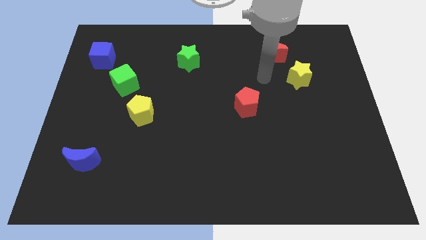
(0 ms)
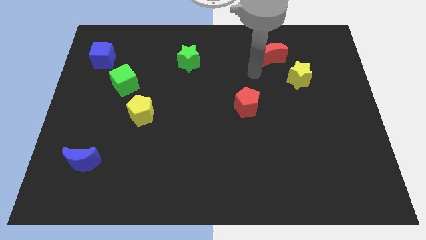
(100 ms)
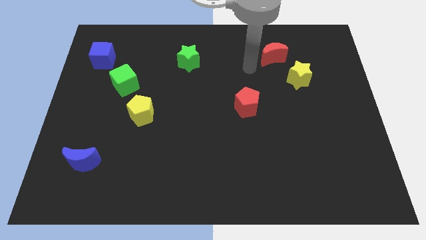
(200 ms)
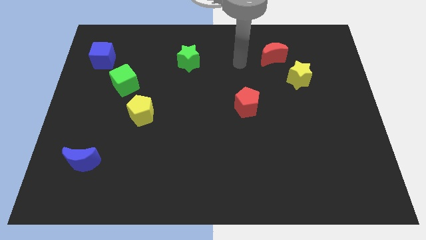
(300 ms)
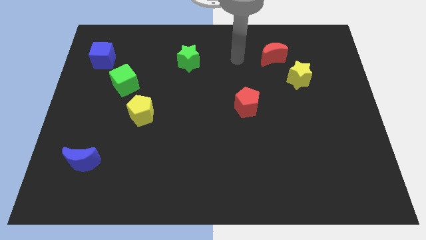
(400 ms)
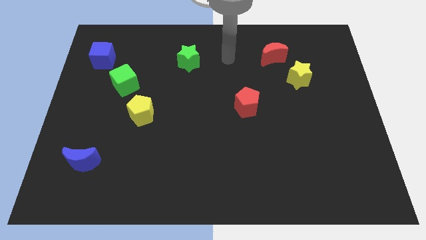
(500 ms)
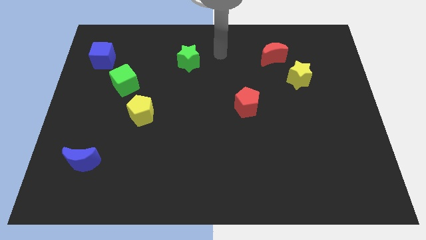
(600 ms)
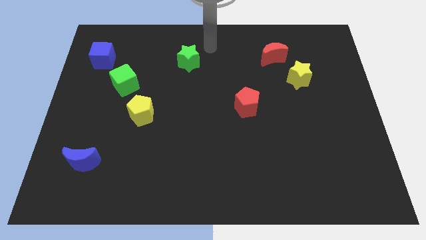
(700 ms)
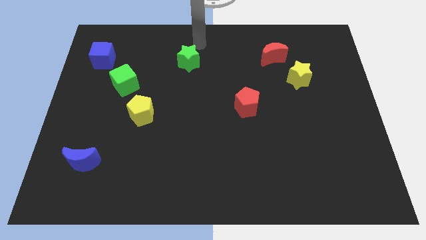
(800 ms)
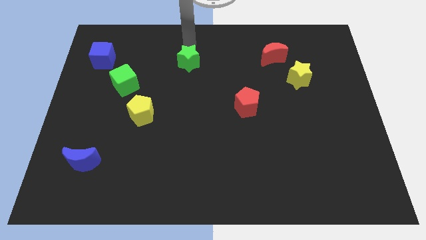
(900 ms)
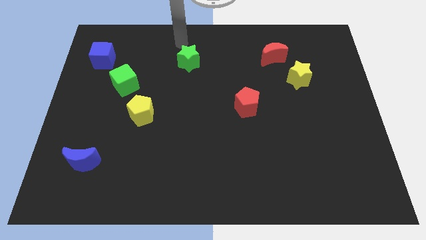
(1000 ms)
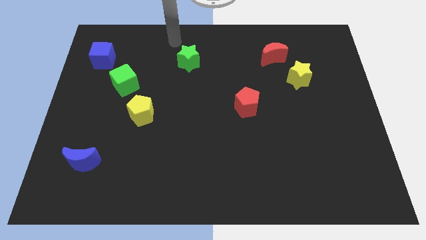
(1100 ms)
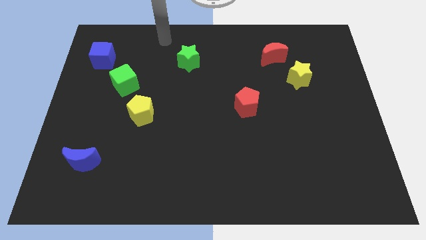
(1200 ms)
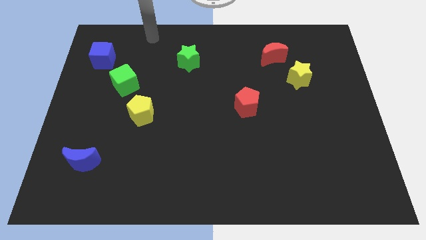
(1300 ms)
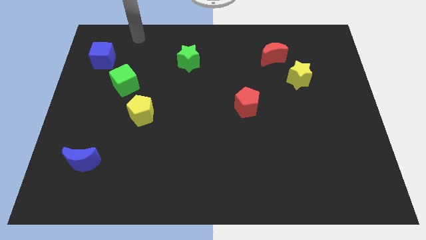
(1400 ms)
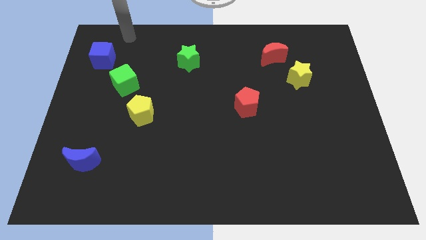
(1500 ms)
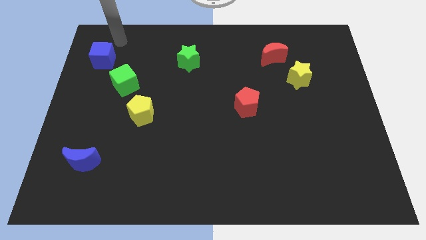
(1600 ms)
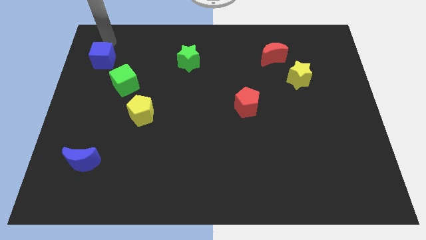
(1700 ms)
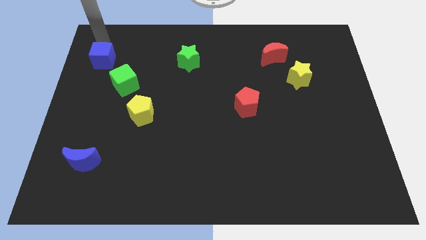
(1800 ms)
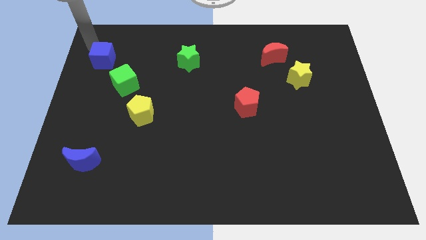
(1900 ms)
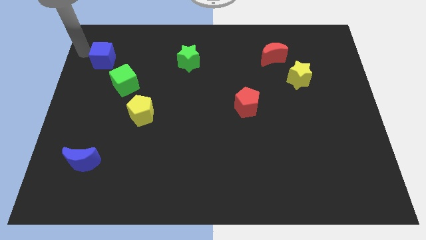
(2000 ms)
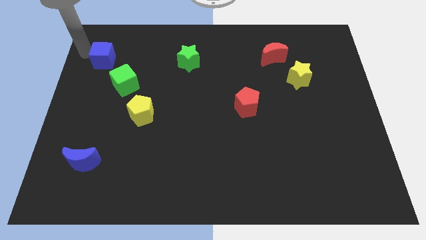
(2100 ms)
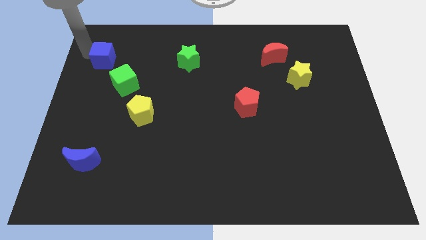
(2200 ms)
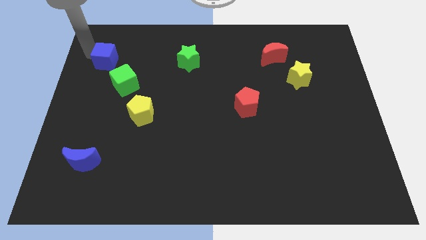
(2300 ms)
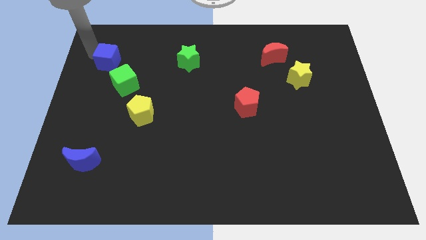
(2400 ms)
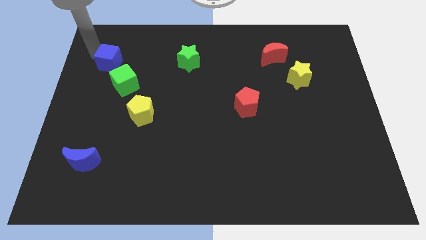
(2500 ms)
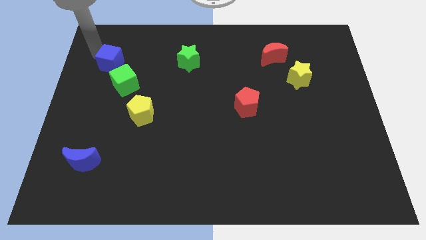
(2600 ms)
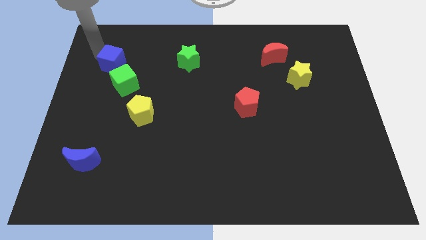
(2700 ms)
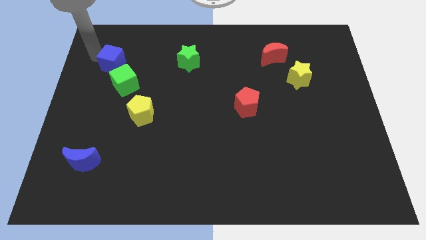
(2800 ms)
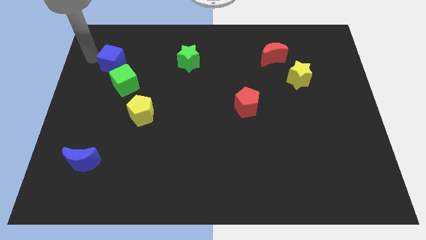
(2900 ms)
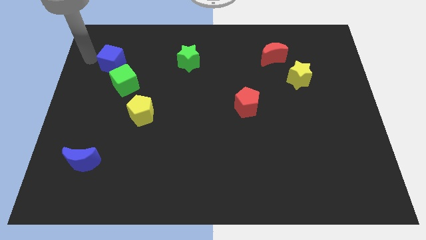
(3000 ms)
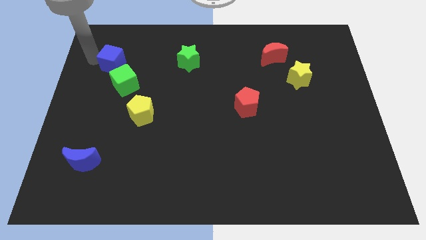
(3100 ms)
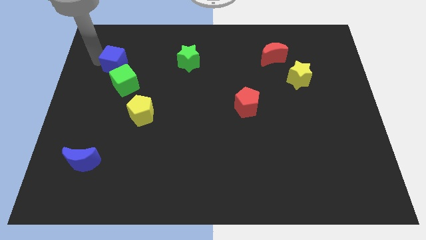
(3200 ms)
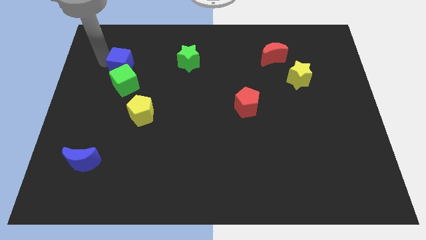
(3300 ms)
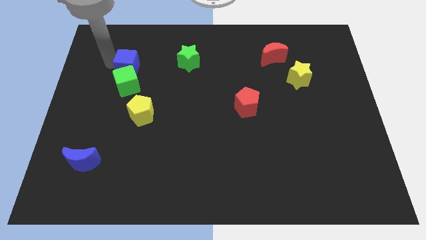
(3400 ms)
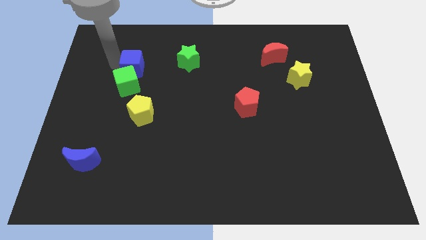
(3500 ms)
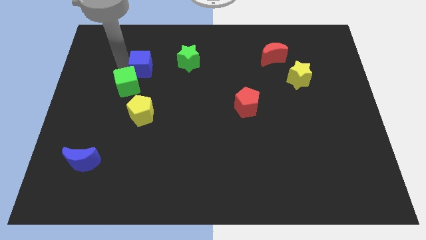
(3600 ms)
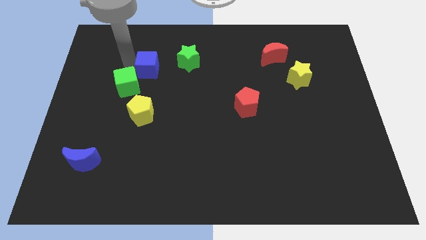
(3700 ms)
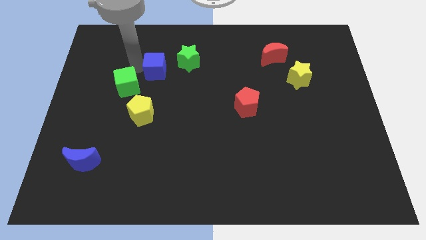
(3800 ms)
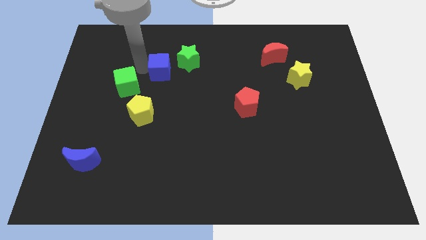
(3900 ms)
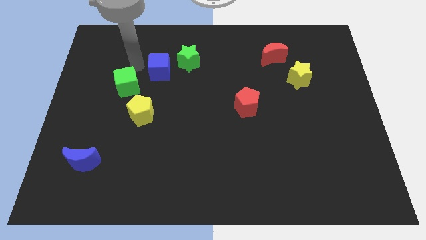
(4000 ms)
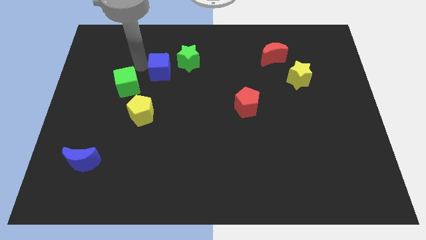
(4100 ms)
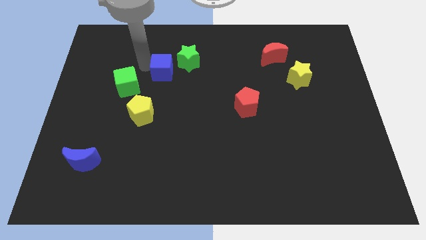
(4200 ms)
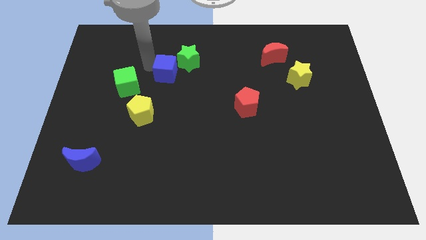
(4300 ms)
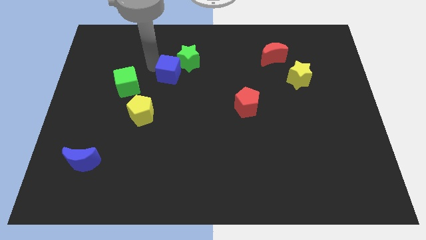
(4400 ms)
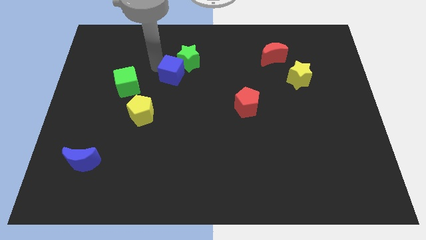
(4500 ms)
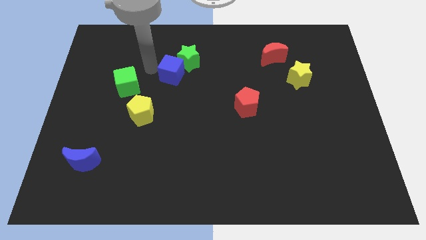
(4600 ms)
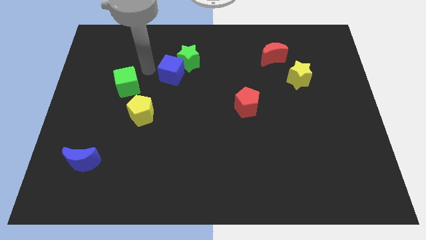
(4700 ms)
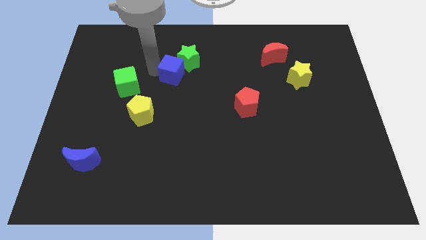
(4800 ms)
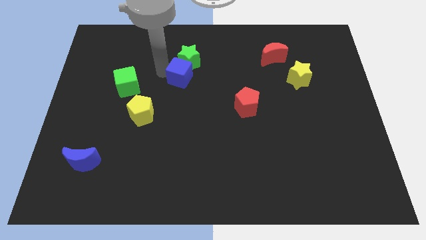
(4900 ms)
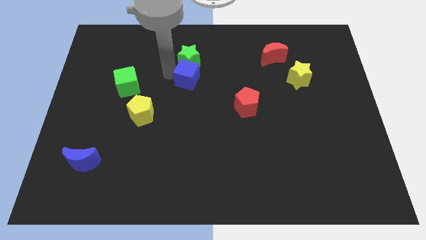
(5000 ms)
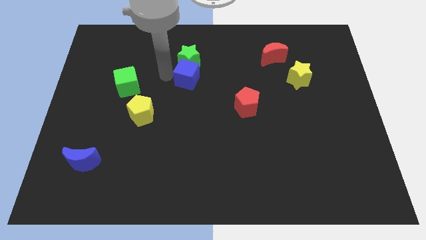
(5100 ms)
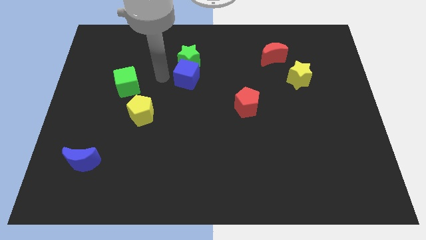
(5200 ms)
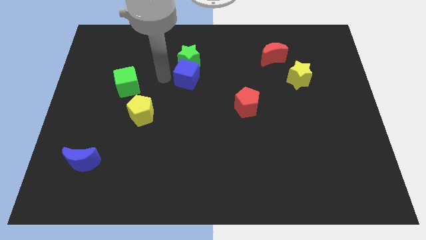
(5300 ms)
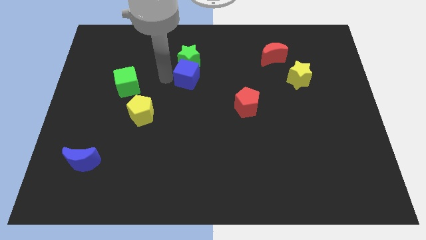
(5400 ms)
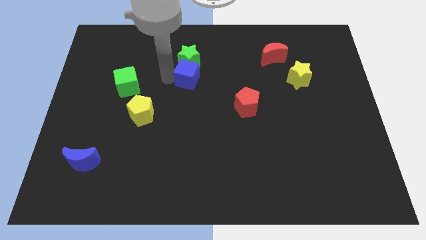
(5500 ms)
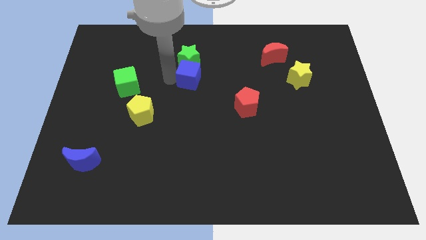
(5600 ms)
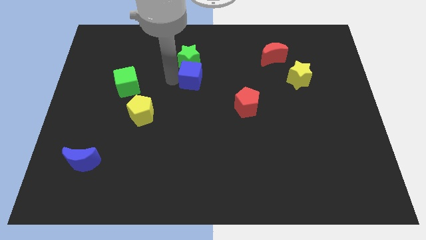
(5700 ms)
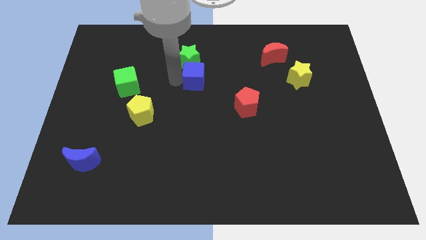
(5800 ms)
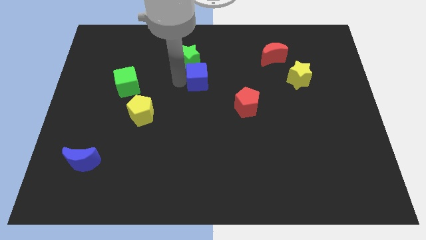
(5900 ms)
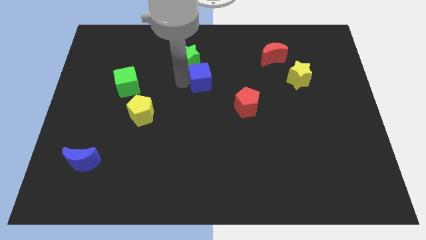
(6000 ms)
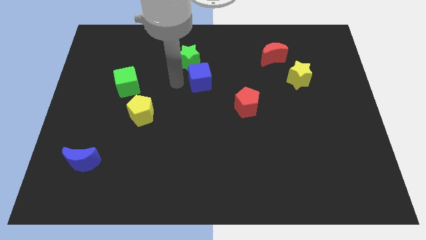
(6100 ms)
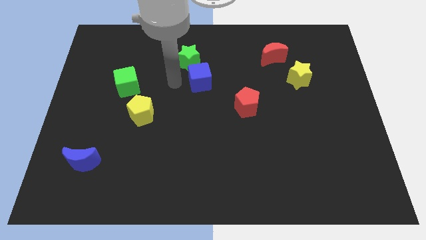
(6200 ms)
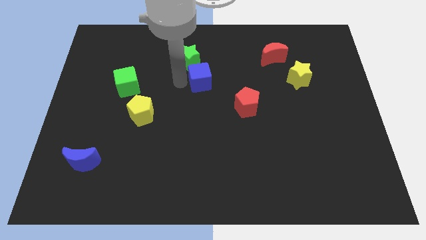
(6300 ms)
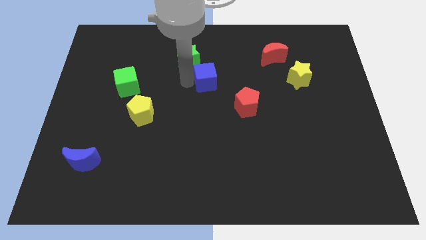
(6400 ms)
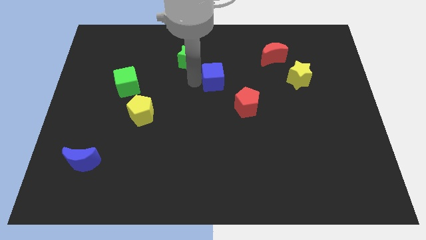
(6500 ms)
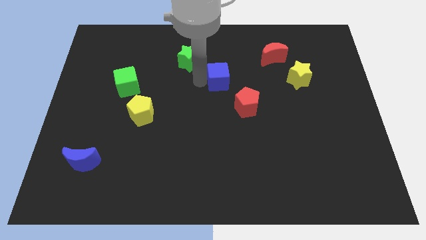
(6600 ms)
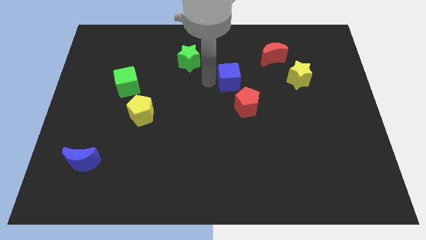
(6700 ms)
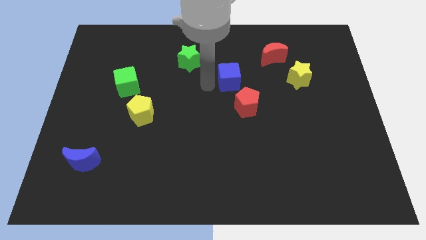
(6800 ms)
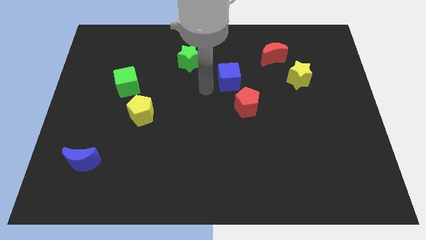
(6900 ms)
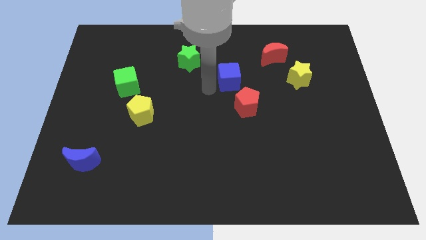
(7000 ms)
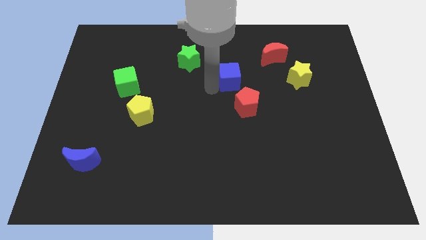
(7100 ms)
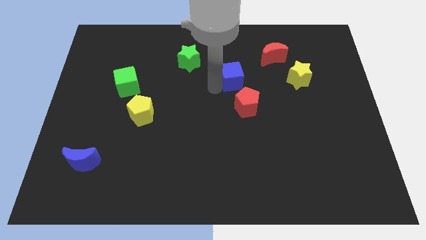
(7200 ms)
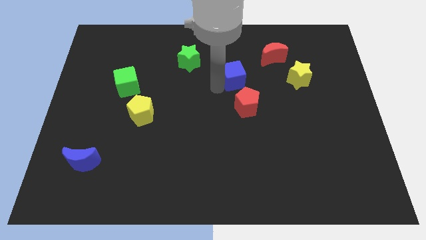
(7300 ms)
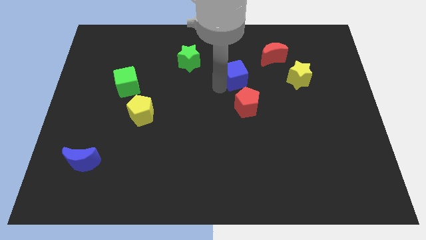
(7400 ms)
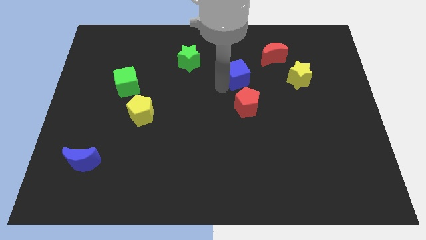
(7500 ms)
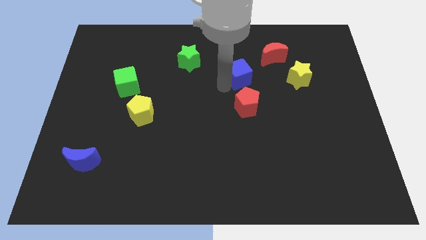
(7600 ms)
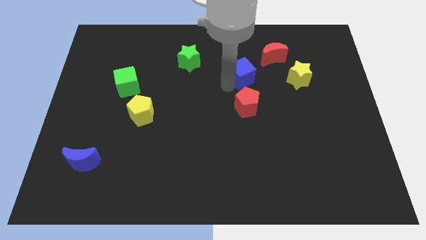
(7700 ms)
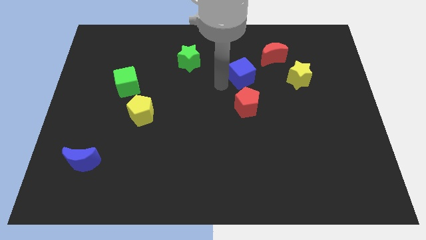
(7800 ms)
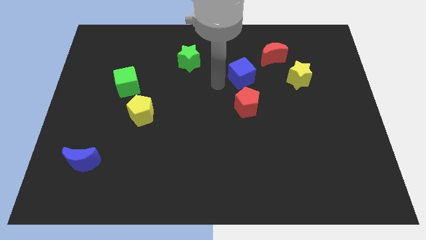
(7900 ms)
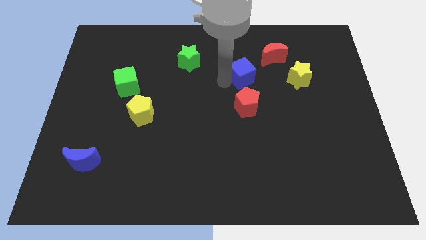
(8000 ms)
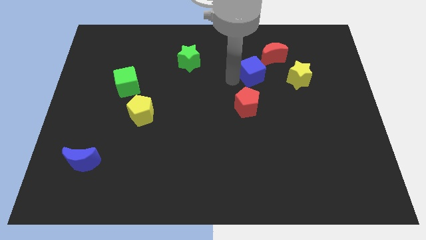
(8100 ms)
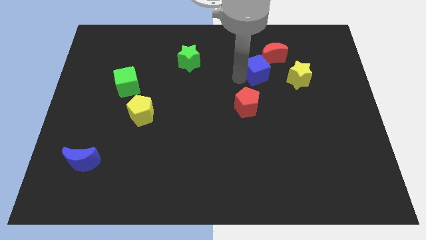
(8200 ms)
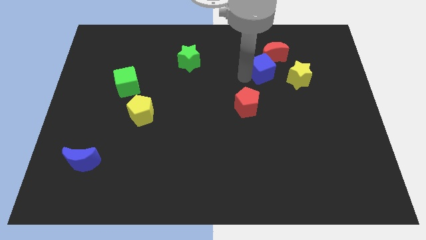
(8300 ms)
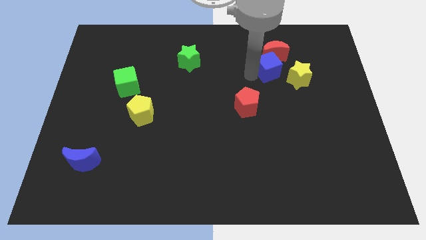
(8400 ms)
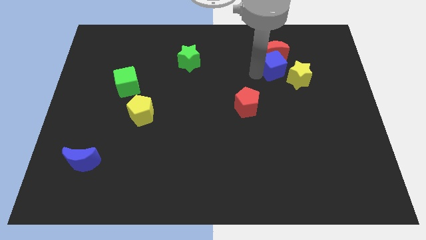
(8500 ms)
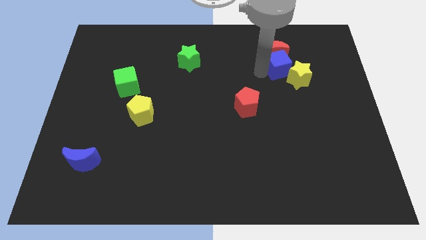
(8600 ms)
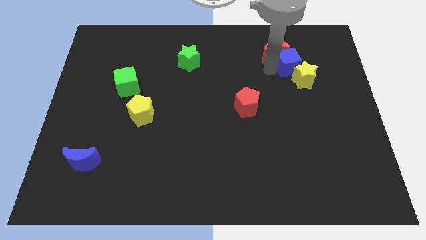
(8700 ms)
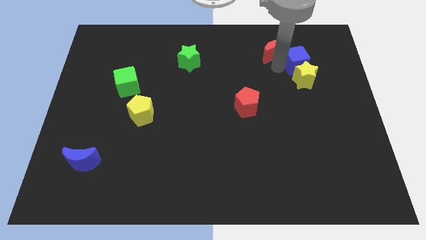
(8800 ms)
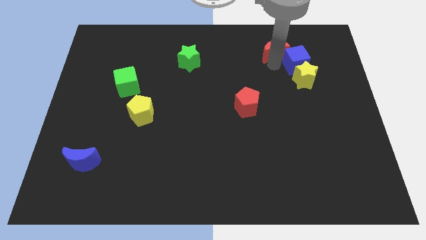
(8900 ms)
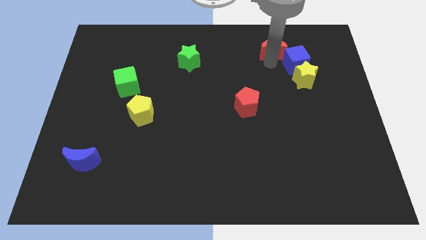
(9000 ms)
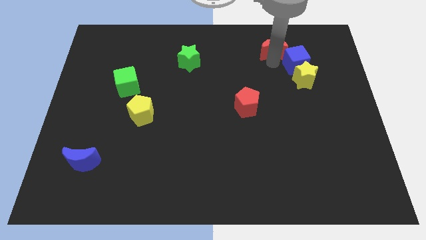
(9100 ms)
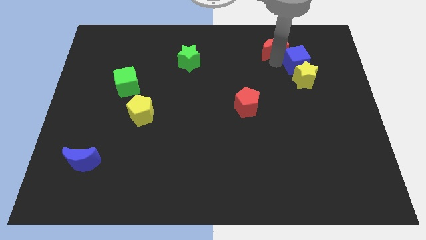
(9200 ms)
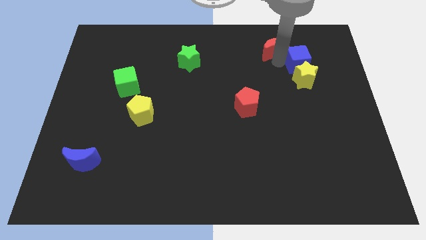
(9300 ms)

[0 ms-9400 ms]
push the blue cube to the top right of the yellow star
